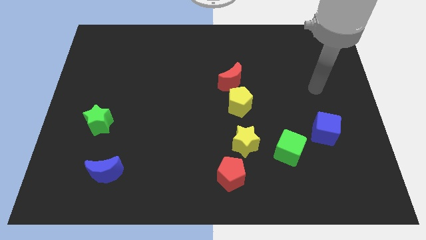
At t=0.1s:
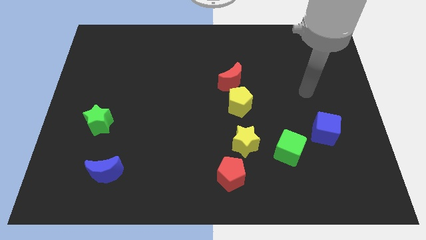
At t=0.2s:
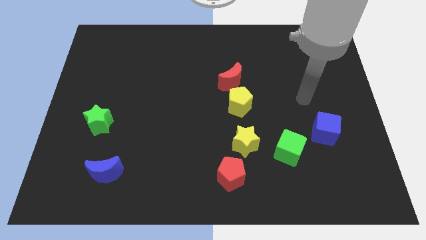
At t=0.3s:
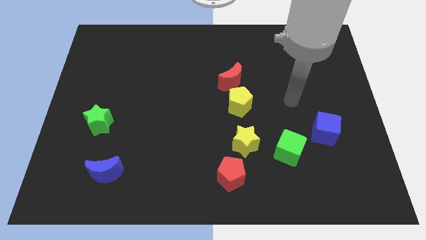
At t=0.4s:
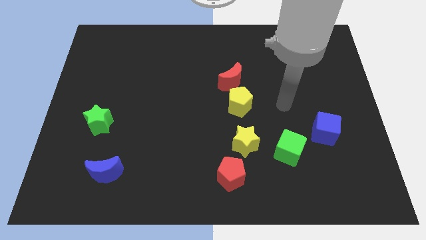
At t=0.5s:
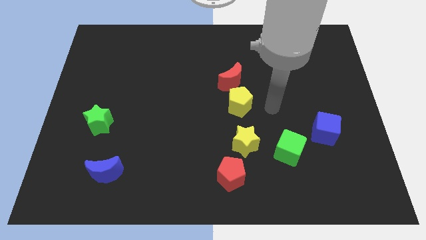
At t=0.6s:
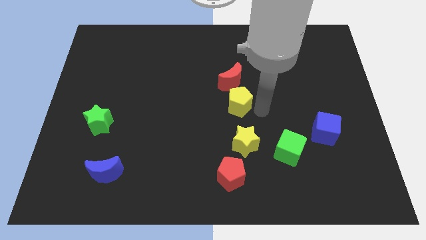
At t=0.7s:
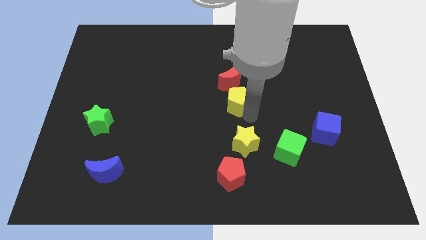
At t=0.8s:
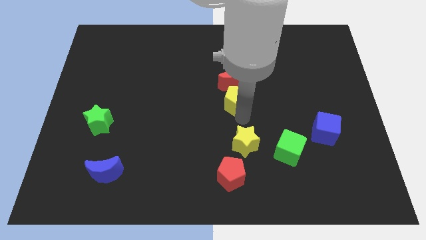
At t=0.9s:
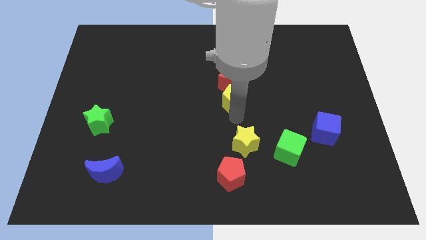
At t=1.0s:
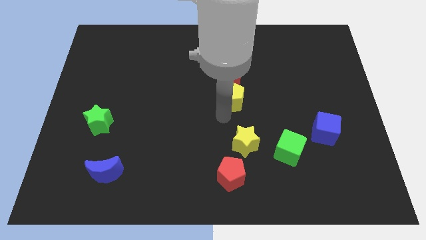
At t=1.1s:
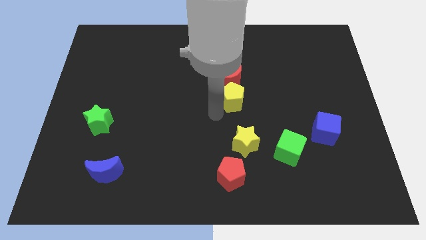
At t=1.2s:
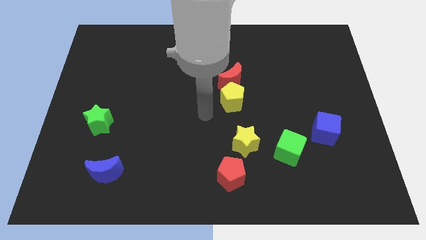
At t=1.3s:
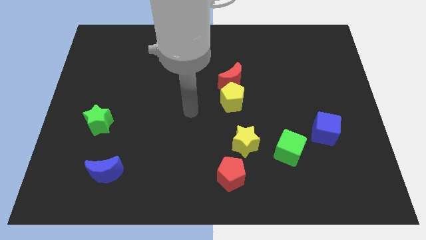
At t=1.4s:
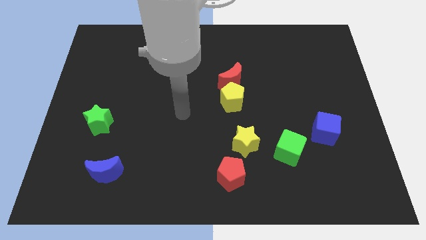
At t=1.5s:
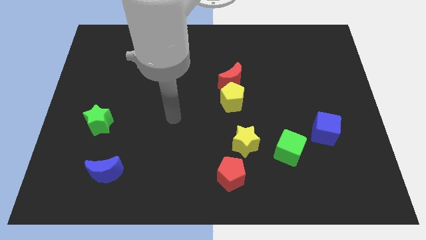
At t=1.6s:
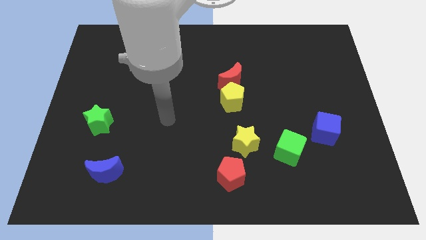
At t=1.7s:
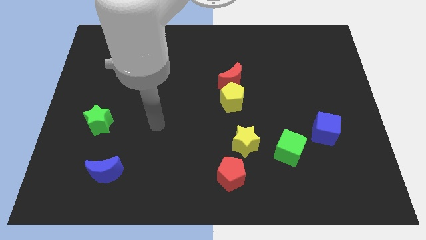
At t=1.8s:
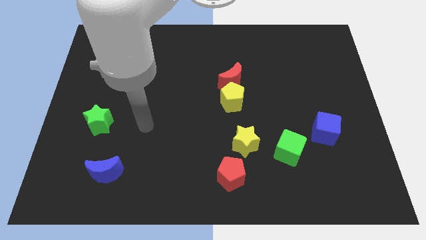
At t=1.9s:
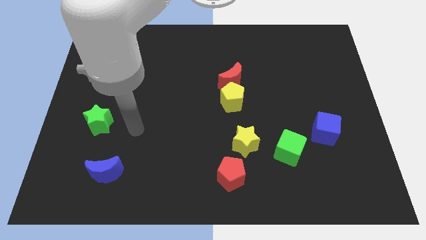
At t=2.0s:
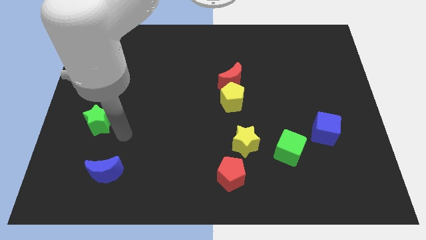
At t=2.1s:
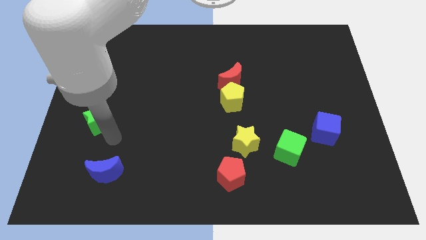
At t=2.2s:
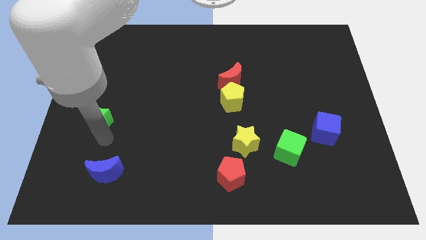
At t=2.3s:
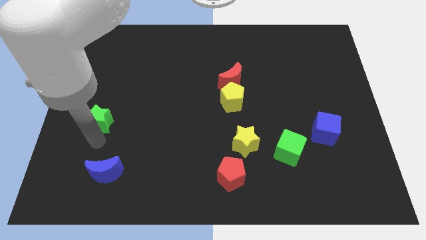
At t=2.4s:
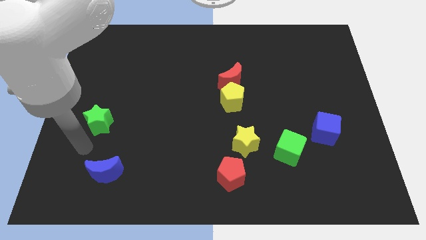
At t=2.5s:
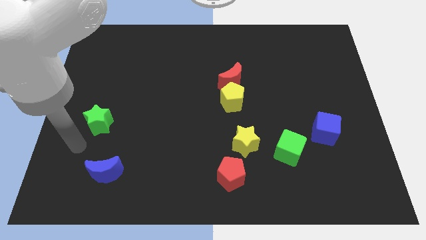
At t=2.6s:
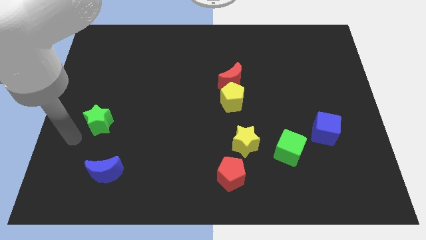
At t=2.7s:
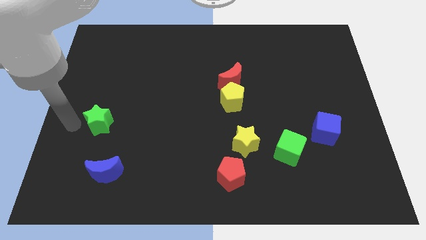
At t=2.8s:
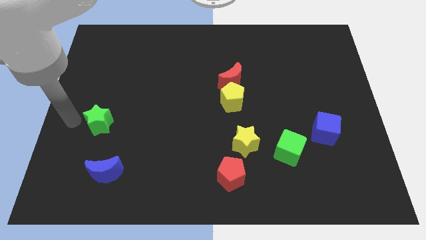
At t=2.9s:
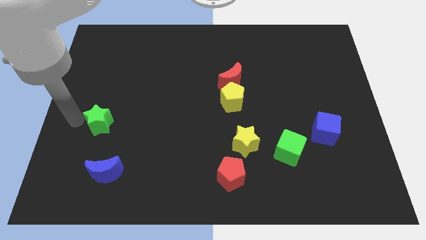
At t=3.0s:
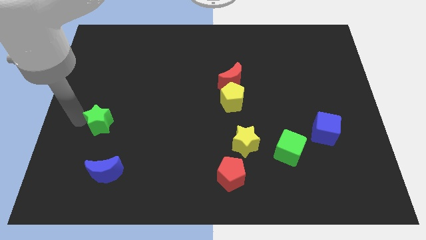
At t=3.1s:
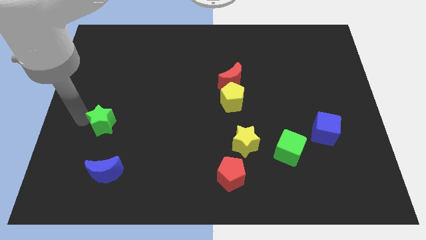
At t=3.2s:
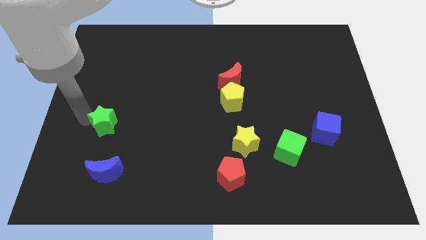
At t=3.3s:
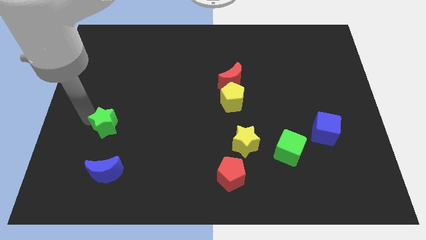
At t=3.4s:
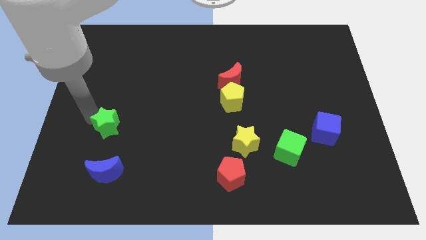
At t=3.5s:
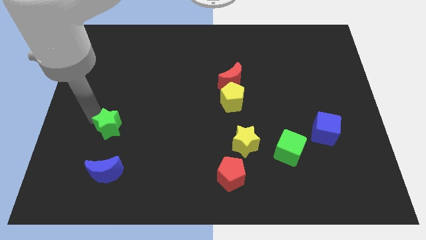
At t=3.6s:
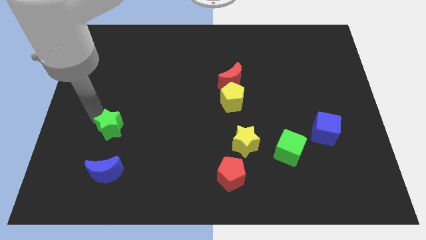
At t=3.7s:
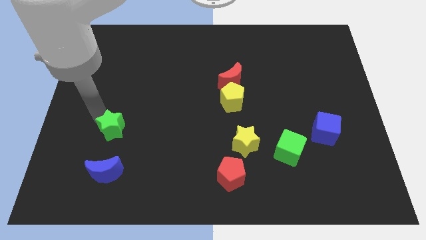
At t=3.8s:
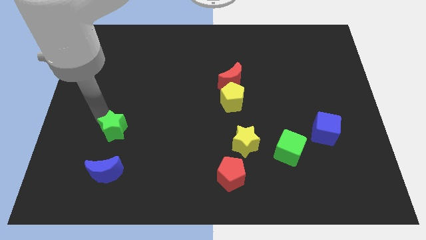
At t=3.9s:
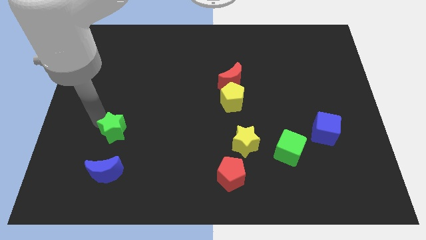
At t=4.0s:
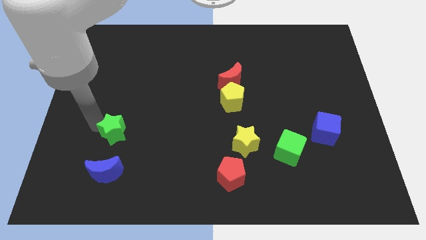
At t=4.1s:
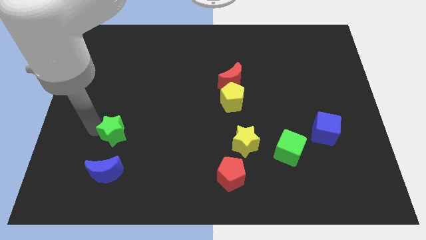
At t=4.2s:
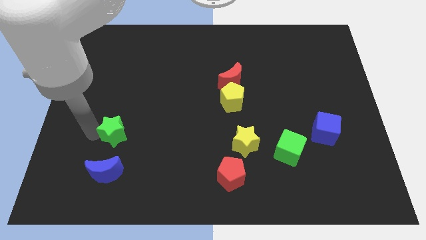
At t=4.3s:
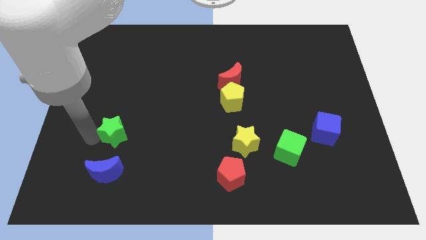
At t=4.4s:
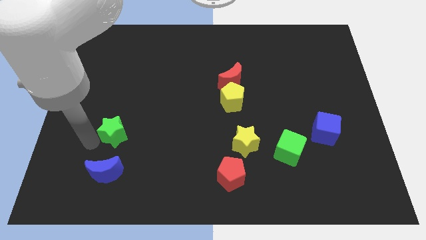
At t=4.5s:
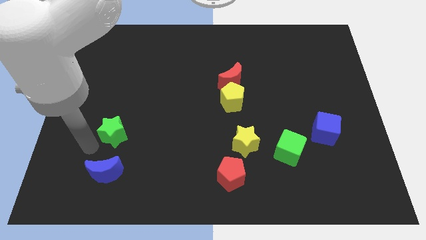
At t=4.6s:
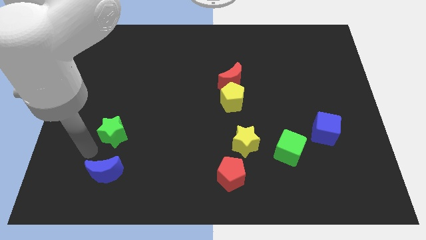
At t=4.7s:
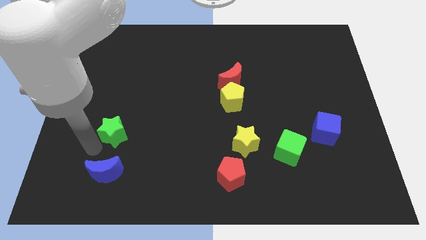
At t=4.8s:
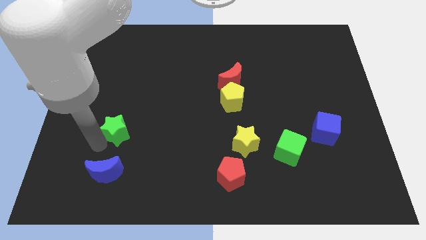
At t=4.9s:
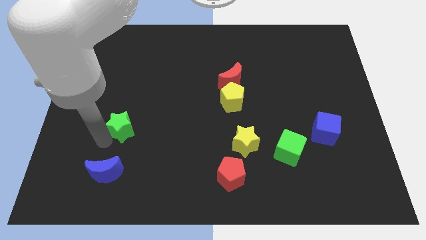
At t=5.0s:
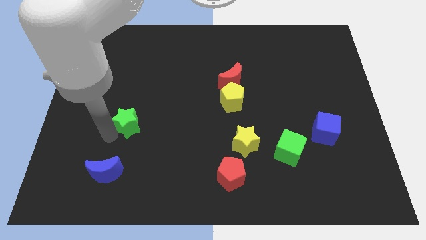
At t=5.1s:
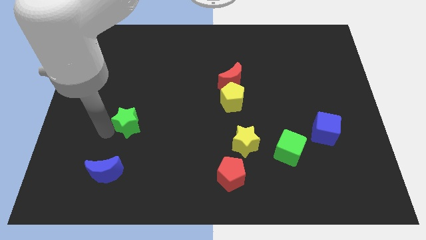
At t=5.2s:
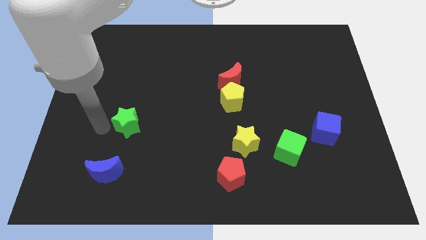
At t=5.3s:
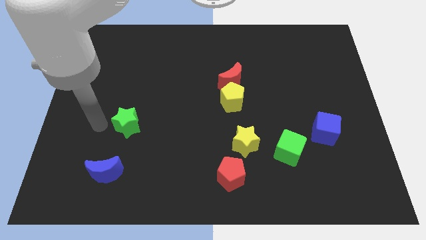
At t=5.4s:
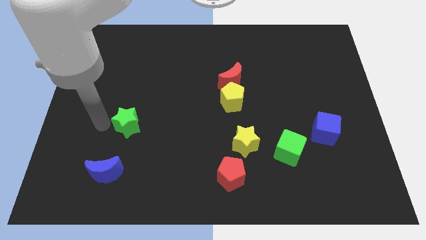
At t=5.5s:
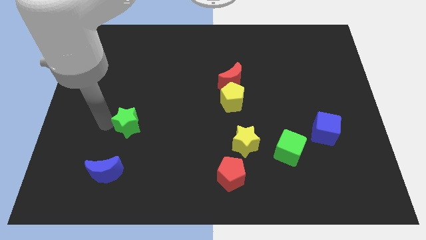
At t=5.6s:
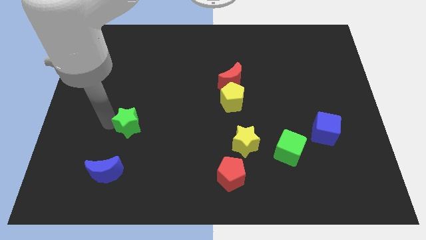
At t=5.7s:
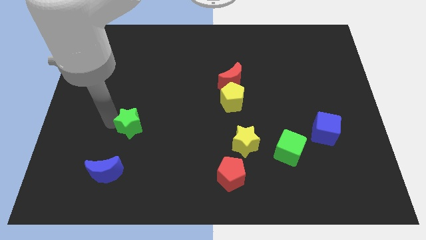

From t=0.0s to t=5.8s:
move the green star right a little bit

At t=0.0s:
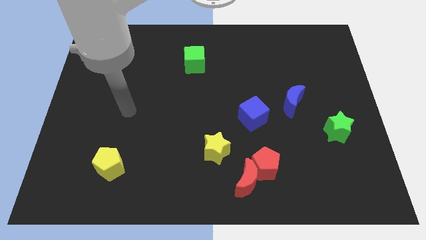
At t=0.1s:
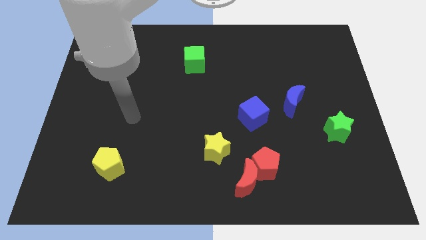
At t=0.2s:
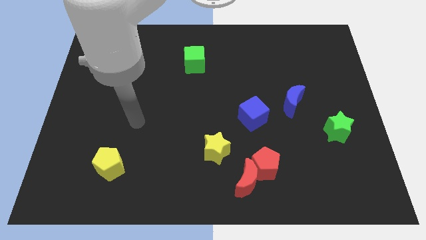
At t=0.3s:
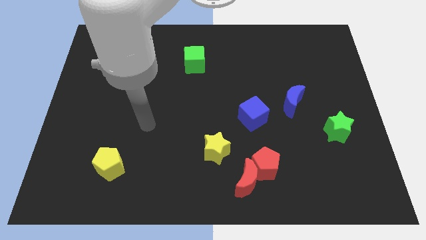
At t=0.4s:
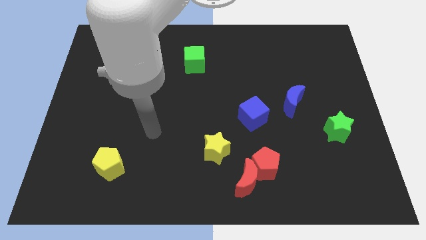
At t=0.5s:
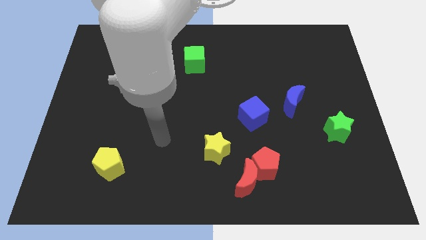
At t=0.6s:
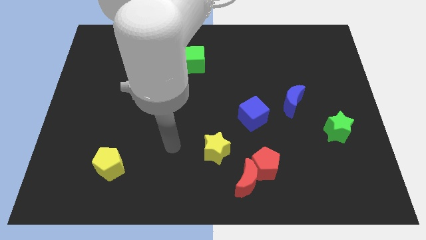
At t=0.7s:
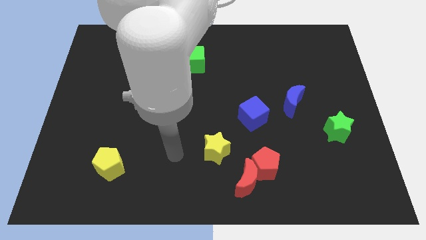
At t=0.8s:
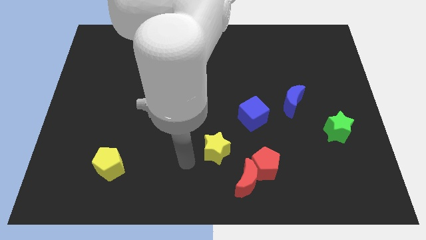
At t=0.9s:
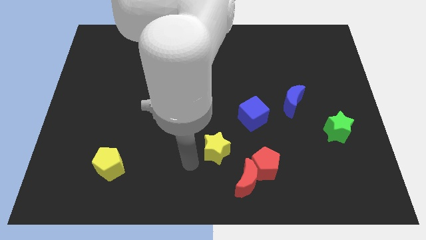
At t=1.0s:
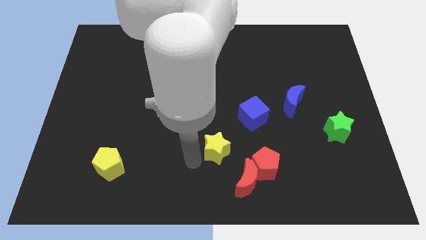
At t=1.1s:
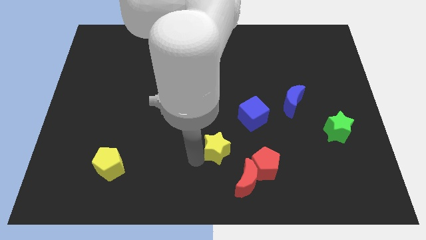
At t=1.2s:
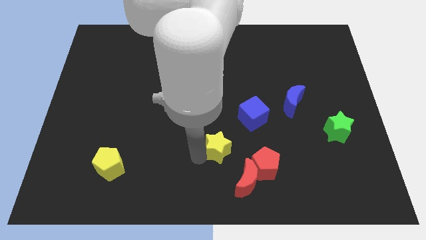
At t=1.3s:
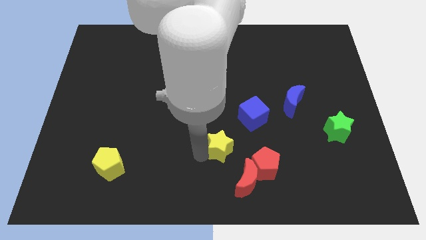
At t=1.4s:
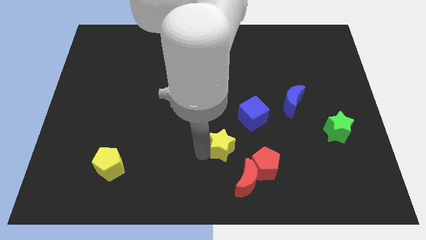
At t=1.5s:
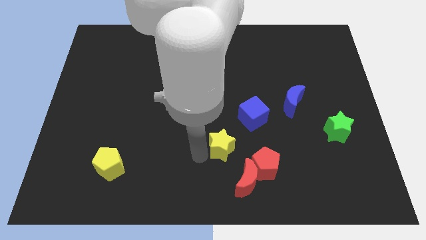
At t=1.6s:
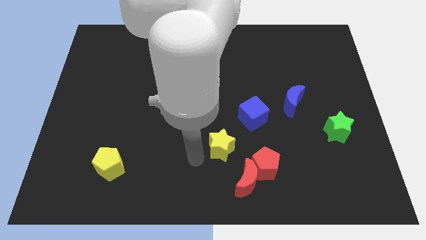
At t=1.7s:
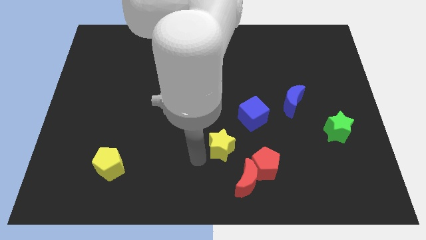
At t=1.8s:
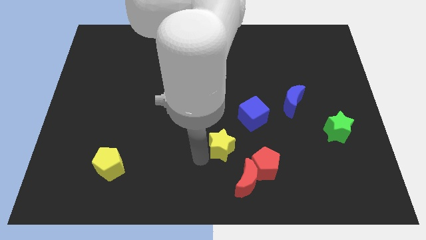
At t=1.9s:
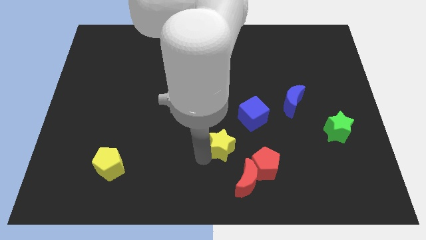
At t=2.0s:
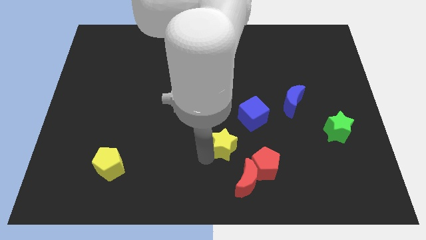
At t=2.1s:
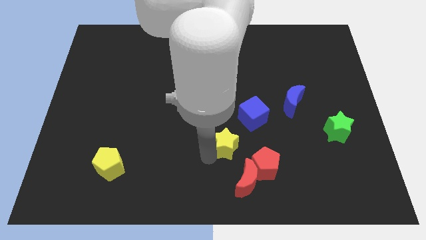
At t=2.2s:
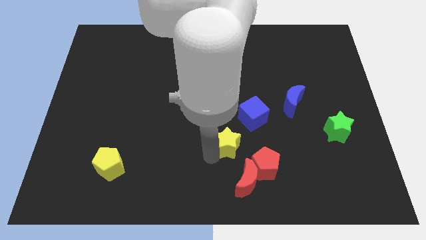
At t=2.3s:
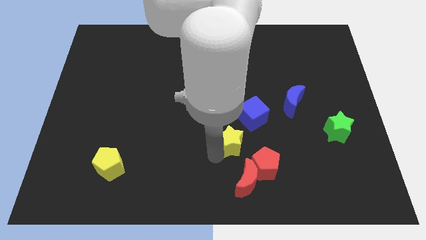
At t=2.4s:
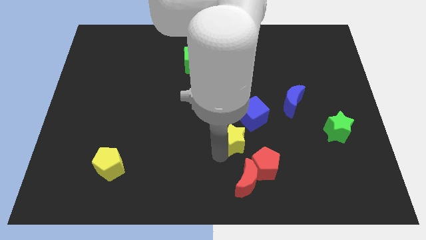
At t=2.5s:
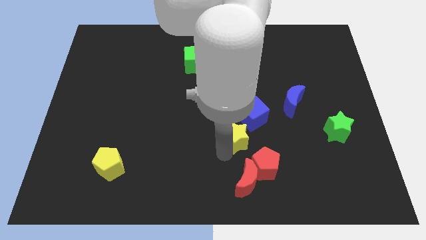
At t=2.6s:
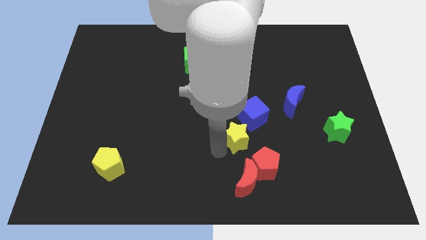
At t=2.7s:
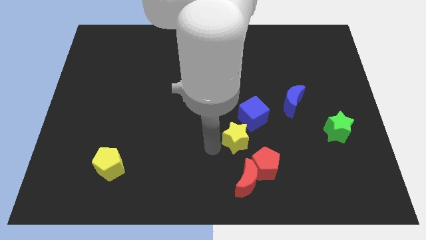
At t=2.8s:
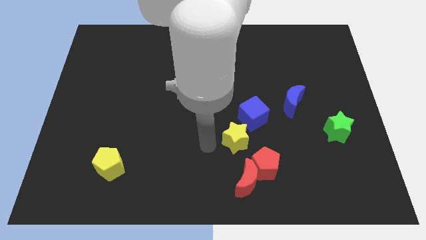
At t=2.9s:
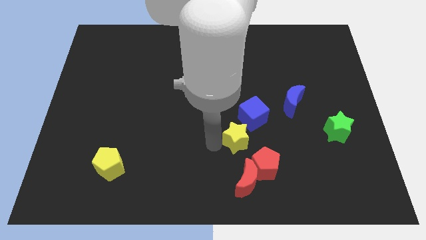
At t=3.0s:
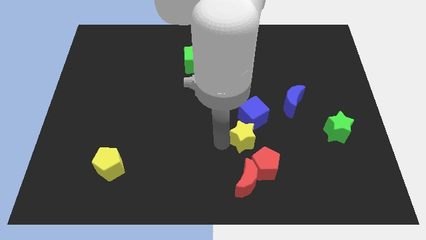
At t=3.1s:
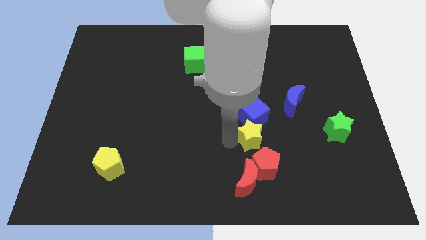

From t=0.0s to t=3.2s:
slide the yellow star upwards and to the right a little bit
